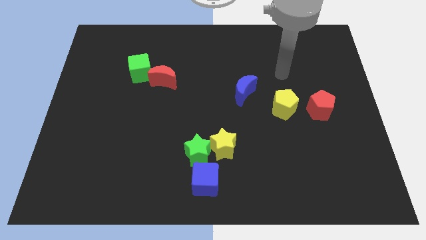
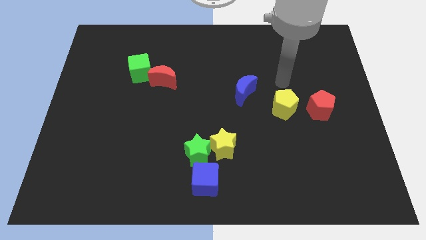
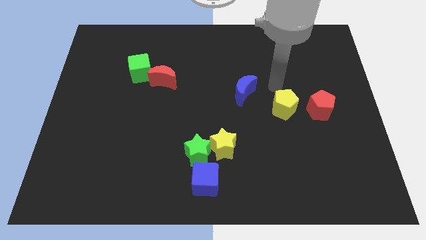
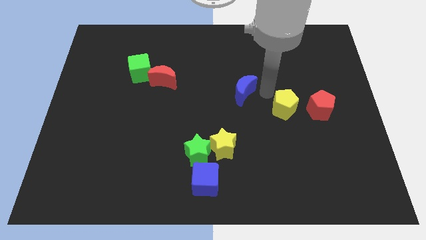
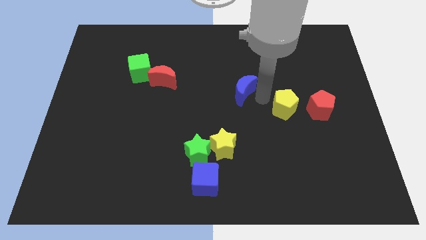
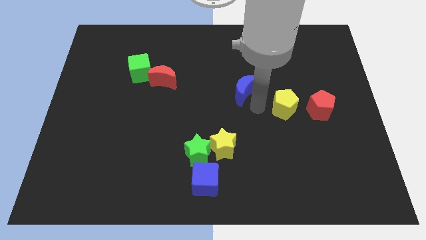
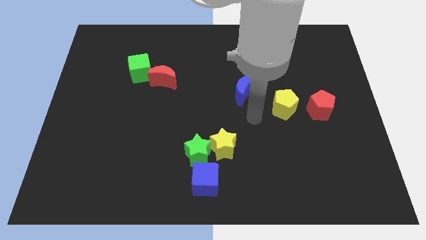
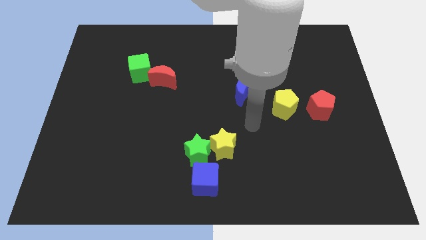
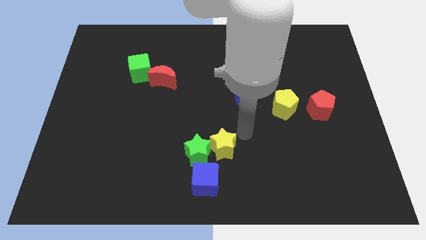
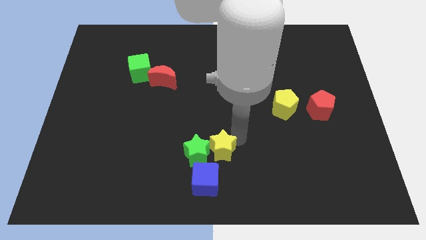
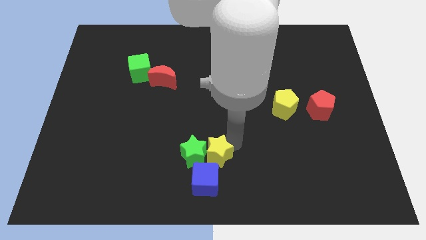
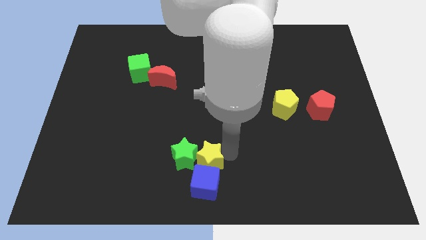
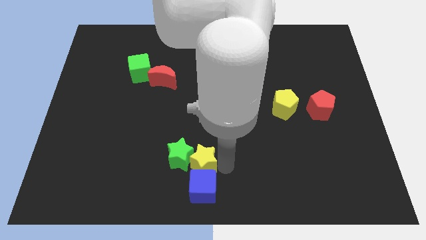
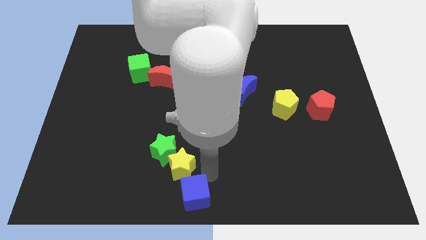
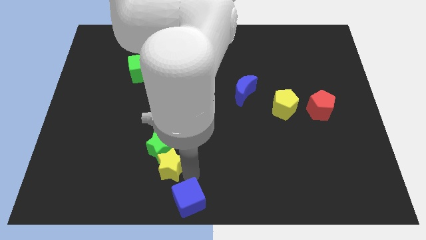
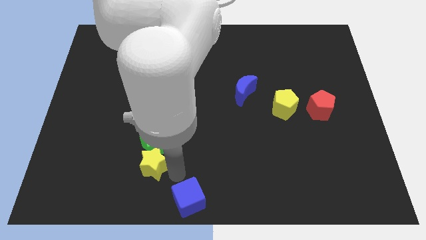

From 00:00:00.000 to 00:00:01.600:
pull the green star apart from the yellow star and blue cube

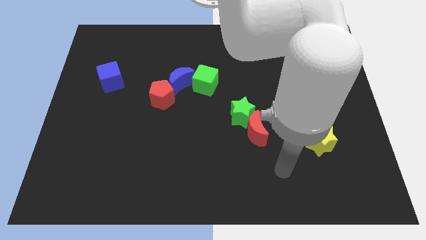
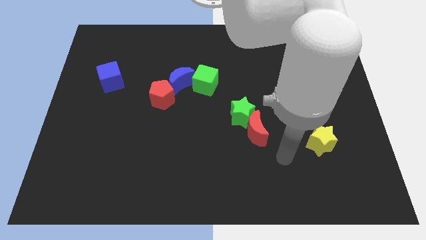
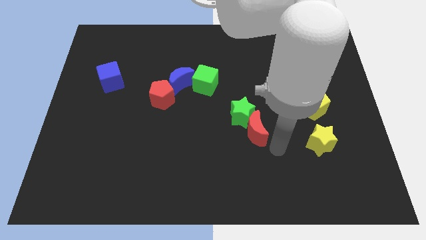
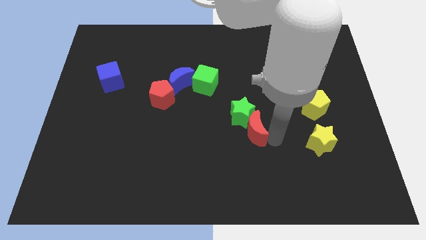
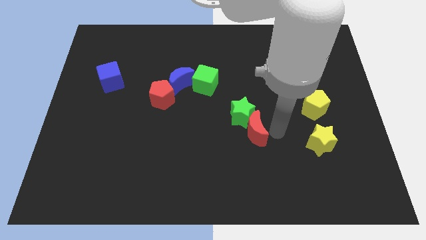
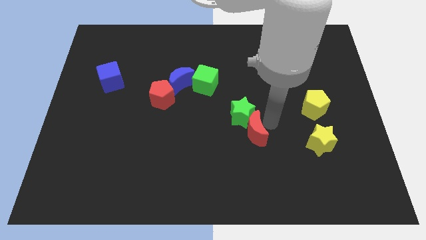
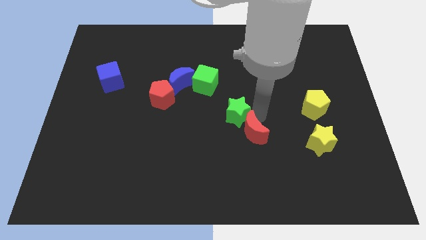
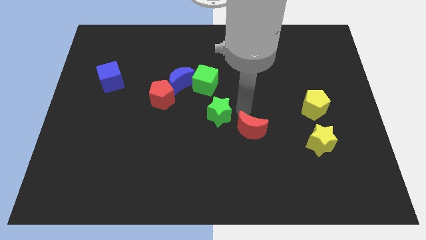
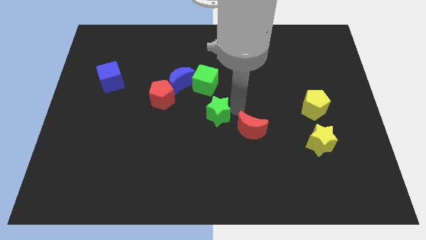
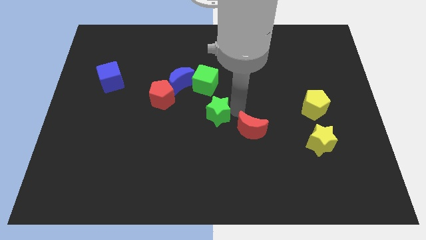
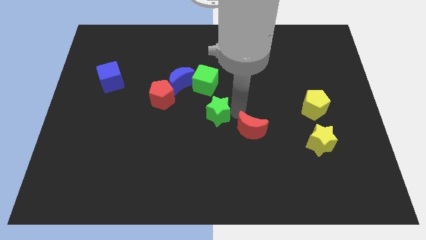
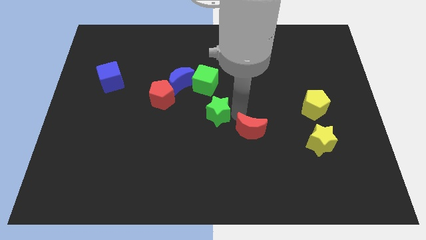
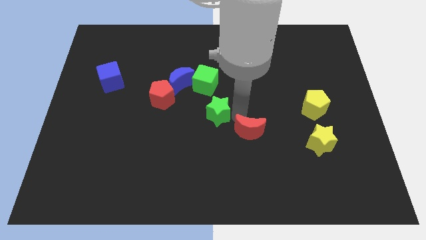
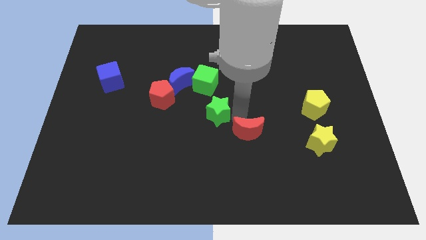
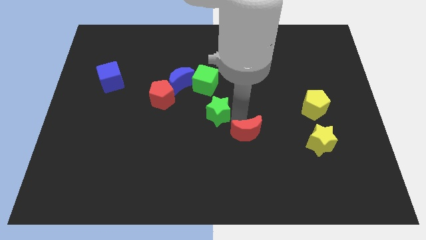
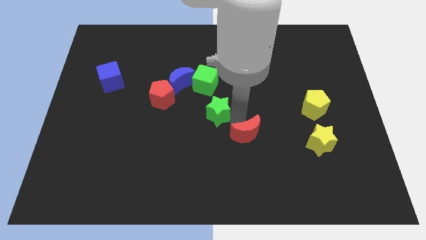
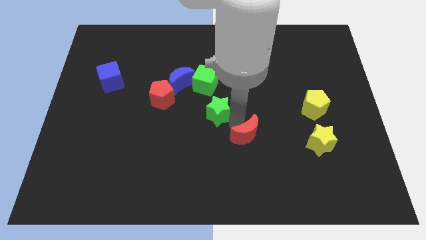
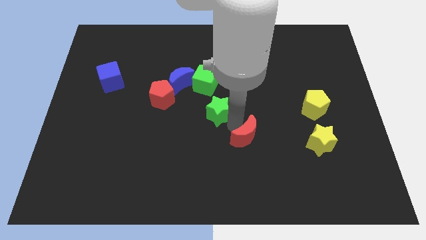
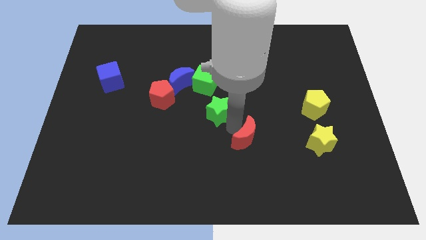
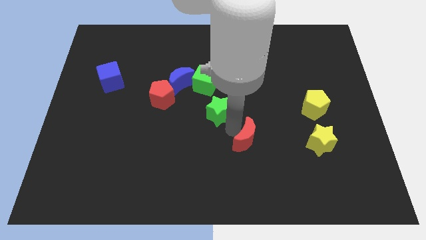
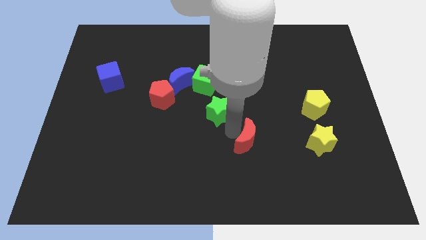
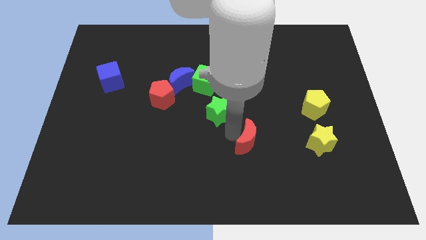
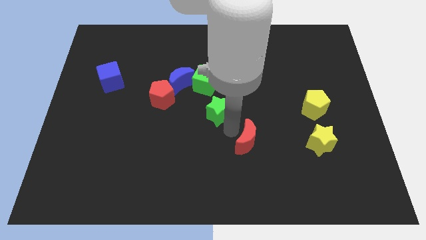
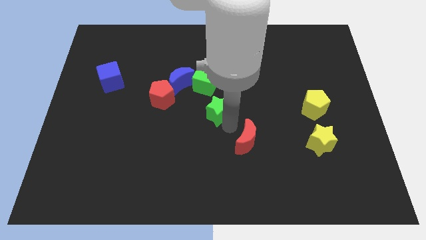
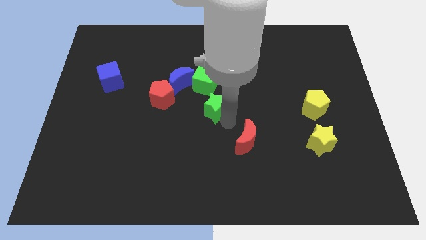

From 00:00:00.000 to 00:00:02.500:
separate the red moon from the green star

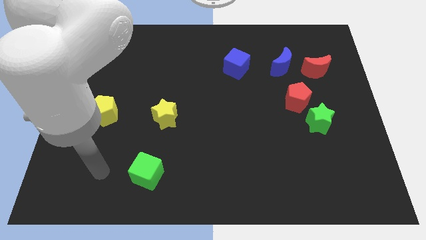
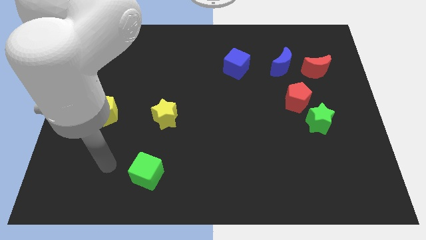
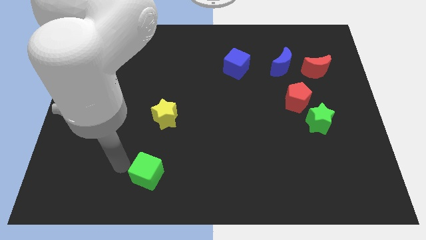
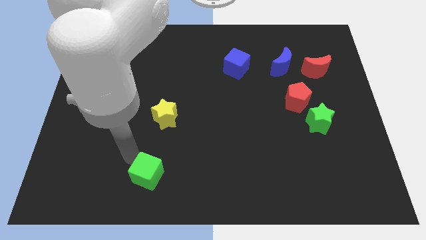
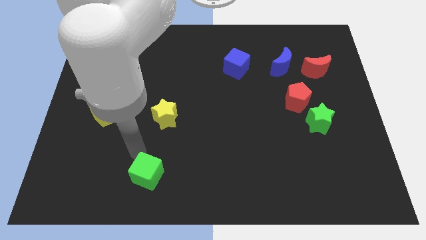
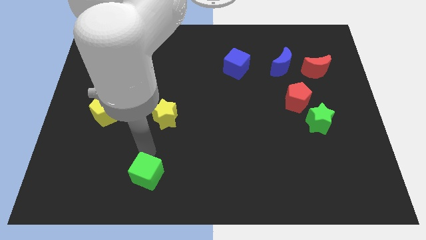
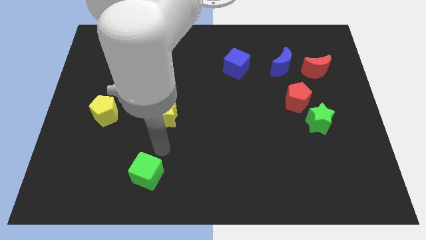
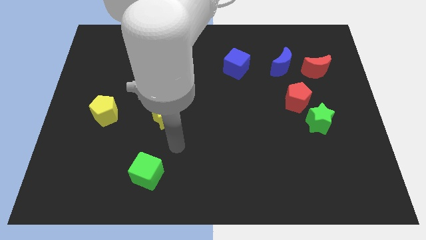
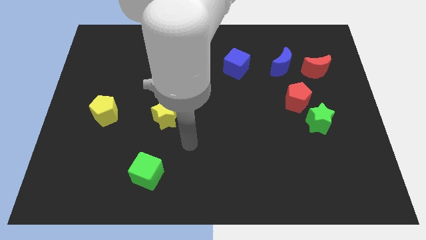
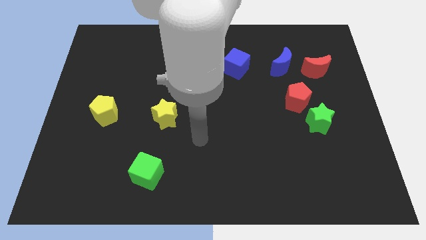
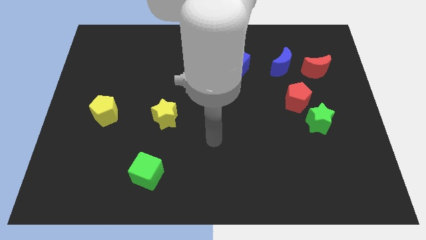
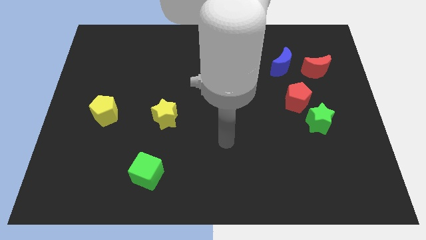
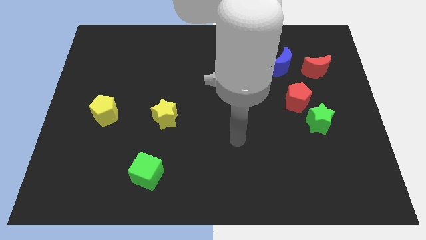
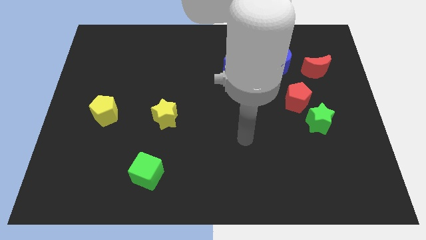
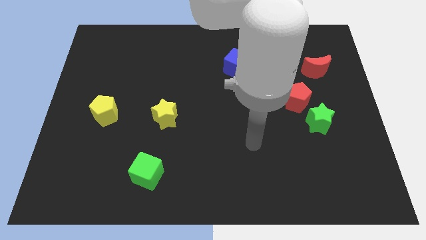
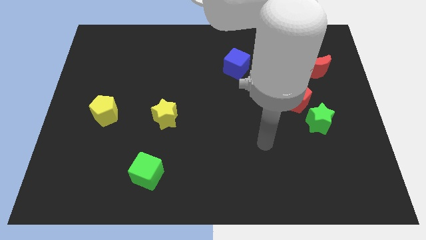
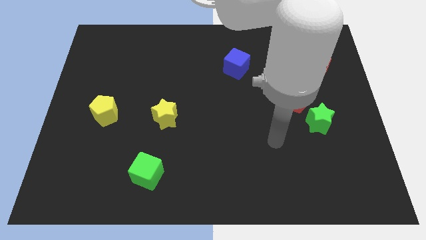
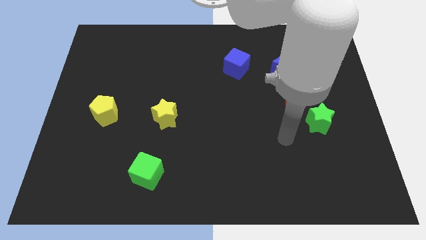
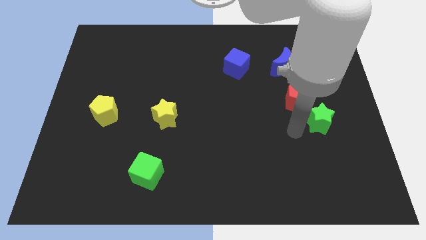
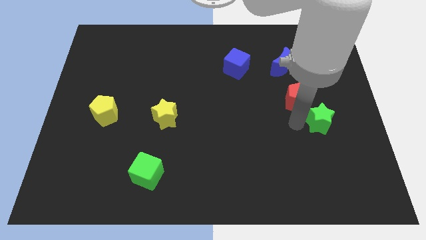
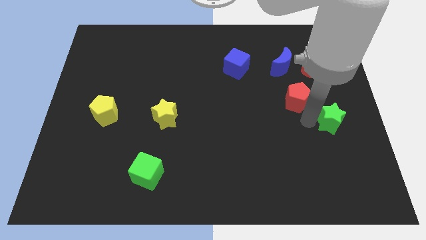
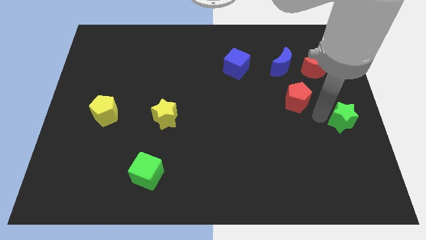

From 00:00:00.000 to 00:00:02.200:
separate the red pentagon from the green star

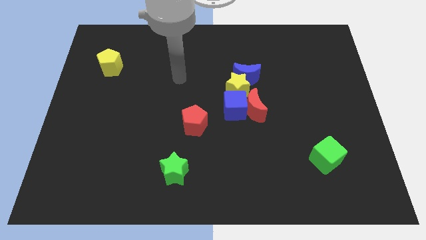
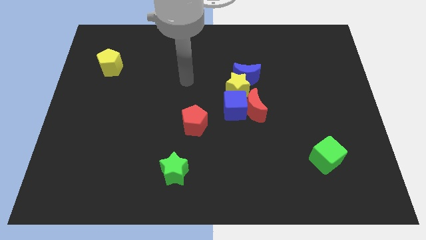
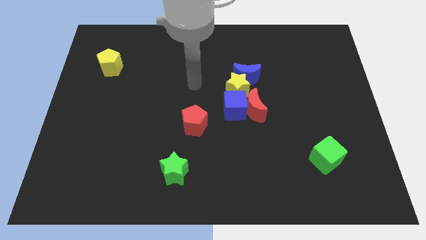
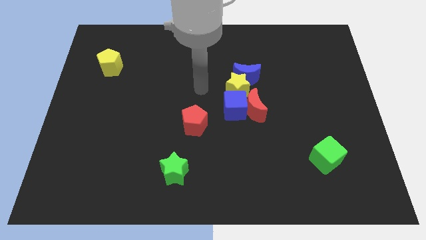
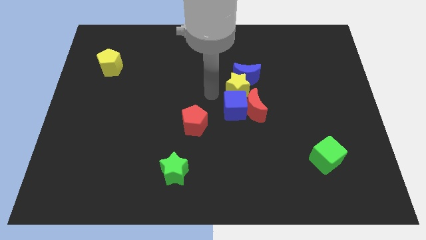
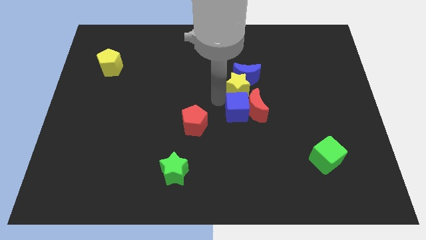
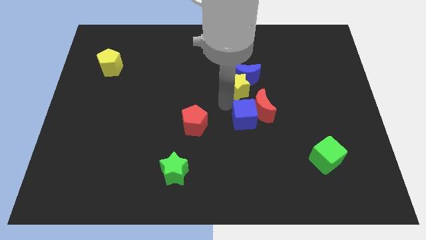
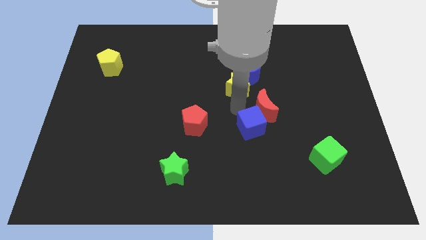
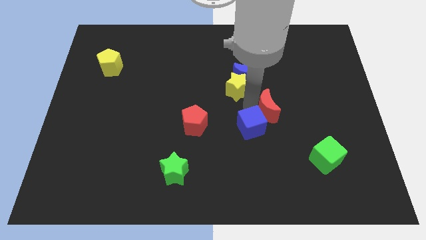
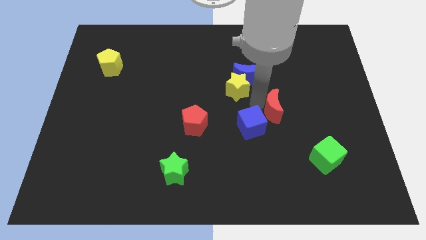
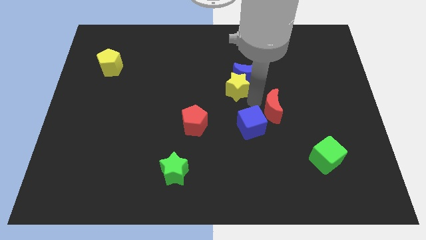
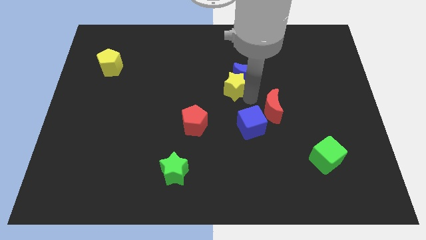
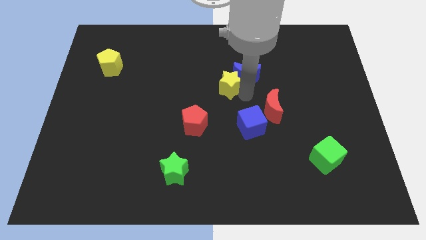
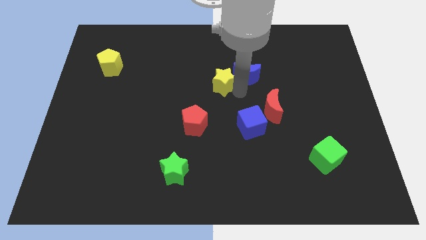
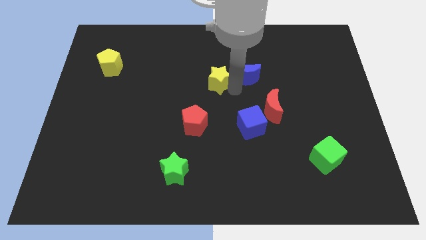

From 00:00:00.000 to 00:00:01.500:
move the yellow star away from the blue moon, blue cube, and red moon

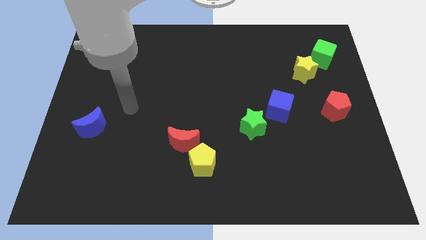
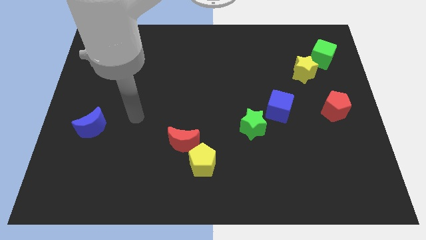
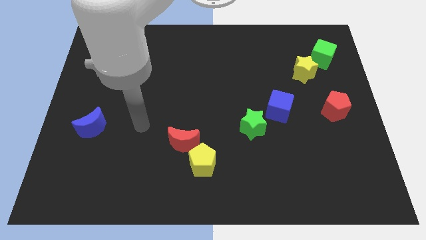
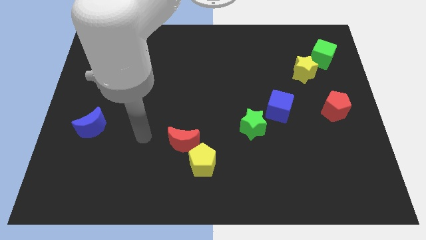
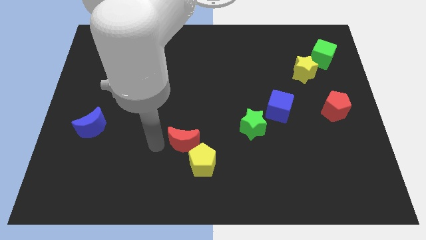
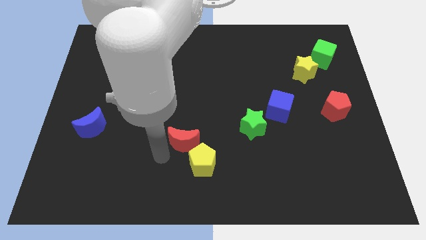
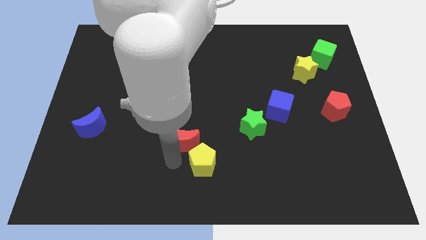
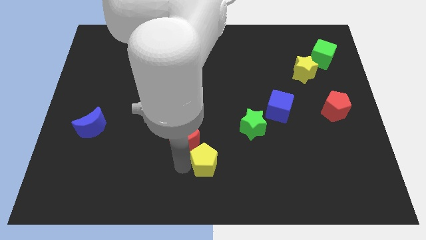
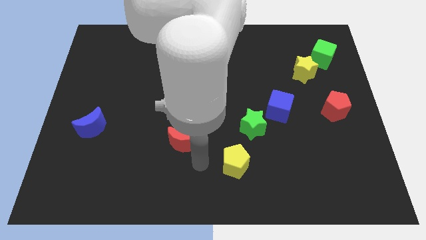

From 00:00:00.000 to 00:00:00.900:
separate the red moon from the yellow pentagon

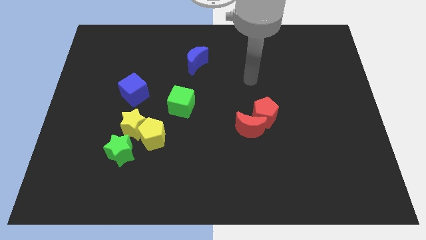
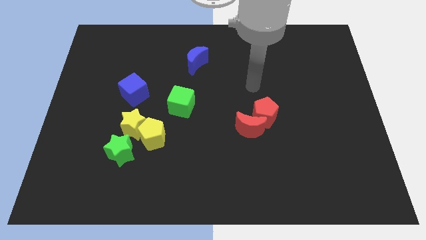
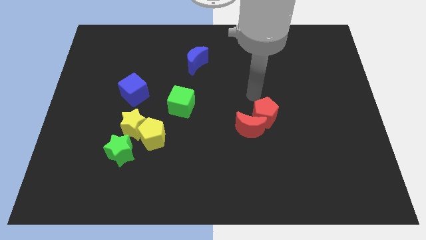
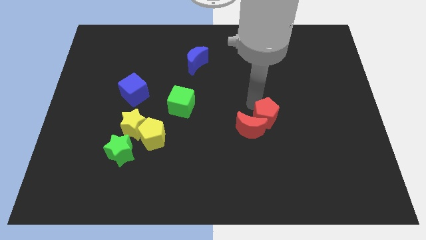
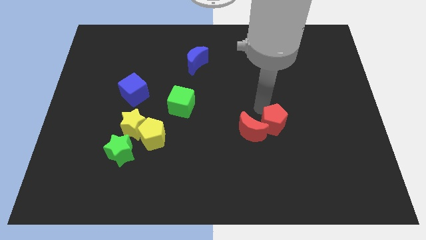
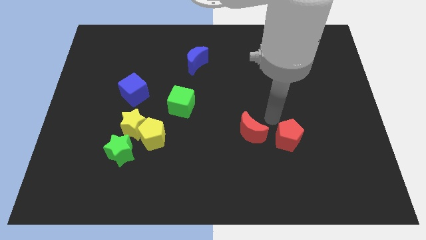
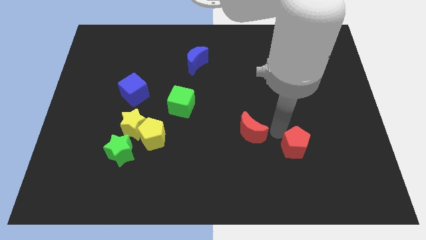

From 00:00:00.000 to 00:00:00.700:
pull the red moon apart from the red pentagon
